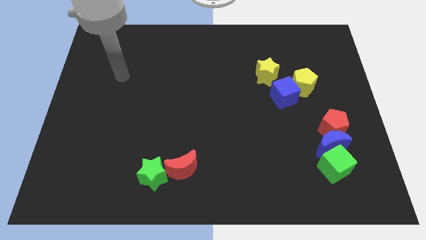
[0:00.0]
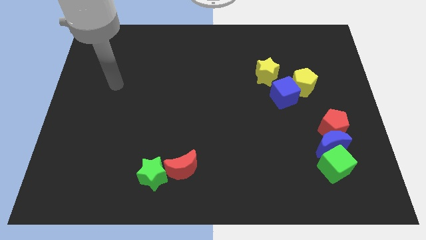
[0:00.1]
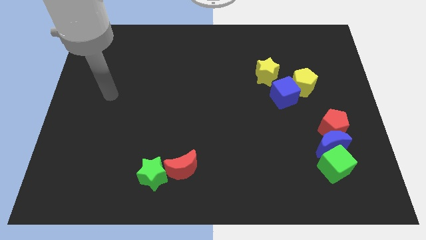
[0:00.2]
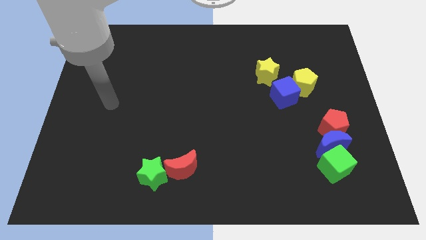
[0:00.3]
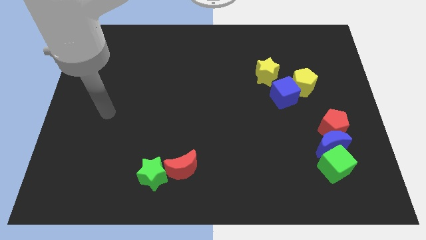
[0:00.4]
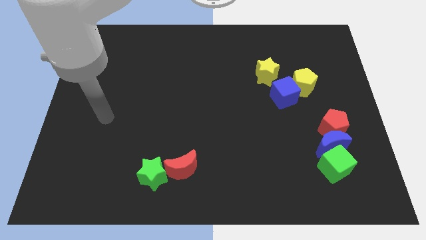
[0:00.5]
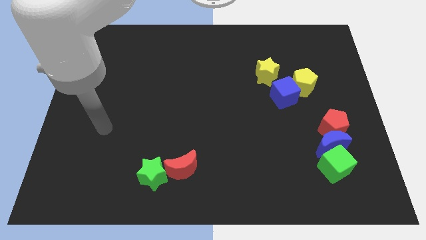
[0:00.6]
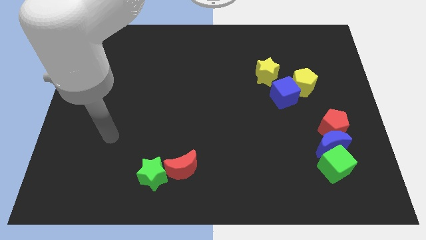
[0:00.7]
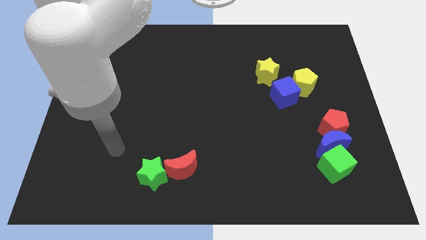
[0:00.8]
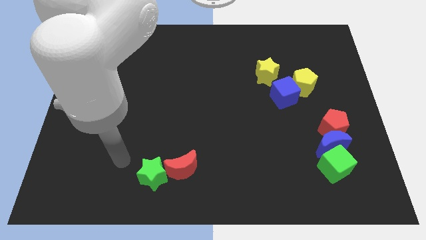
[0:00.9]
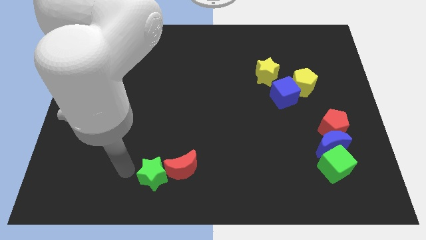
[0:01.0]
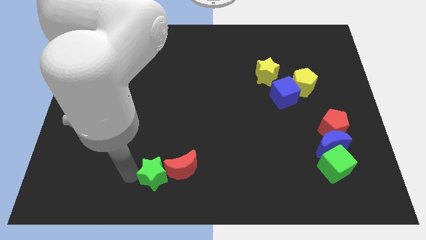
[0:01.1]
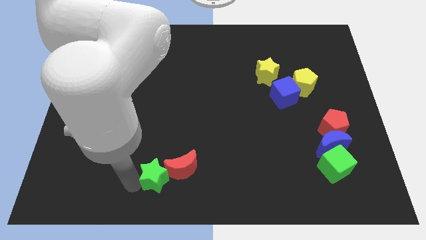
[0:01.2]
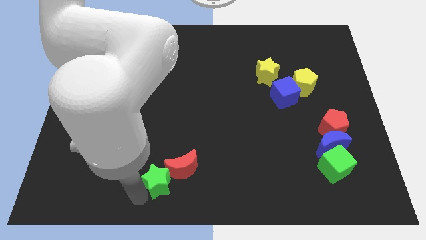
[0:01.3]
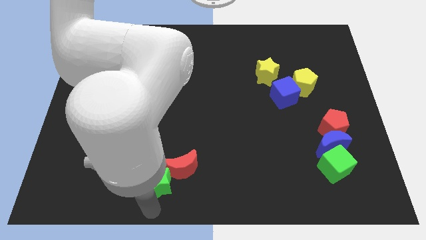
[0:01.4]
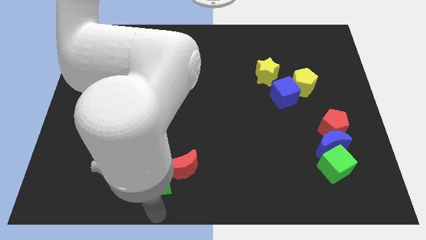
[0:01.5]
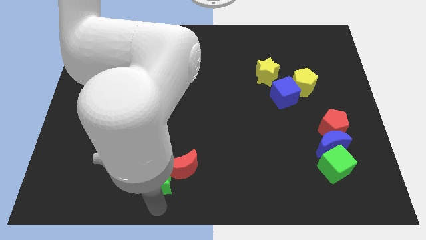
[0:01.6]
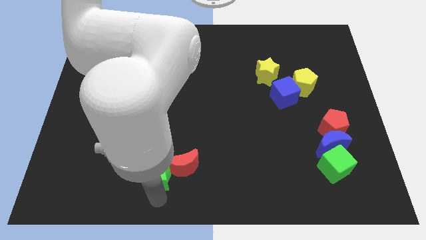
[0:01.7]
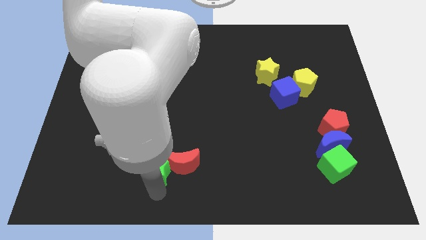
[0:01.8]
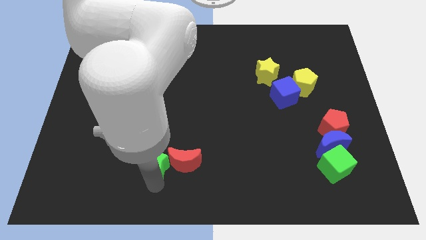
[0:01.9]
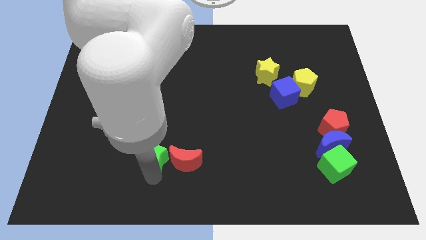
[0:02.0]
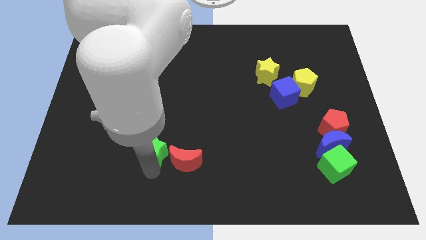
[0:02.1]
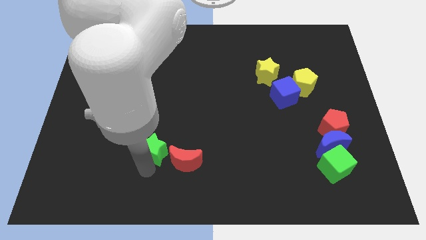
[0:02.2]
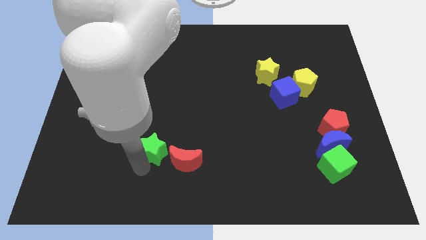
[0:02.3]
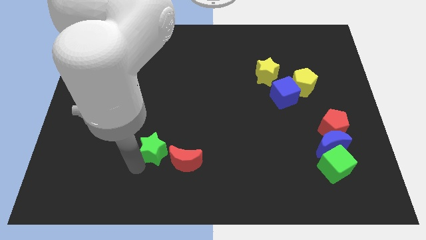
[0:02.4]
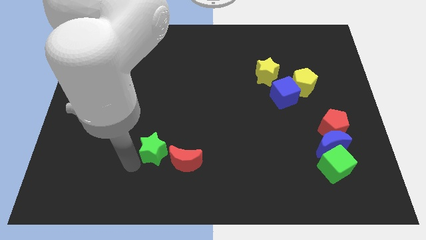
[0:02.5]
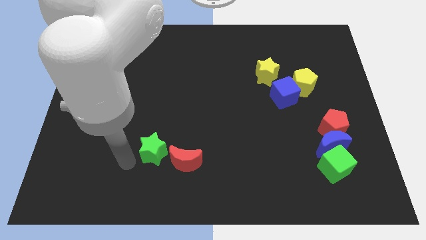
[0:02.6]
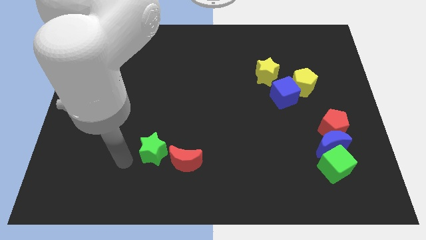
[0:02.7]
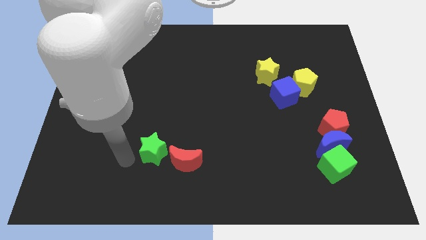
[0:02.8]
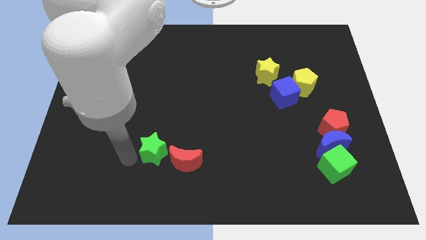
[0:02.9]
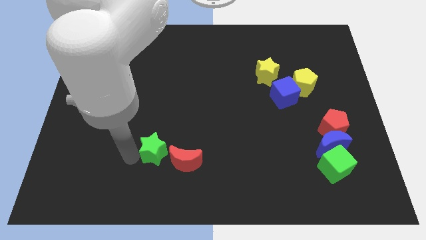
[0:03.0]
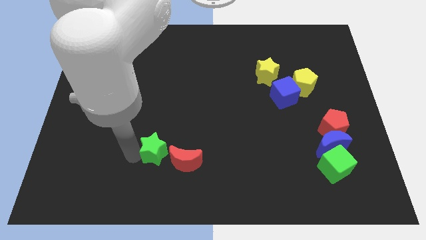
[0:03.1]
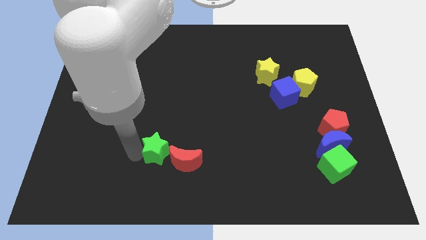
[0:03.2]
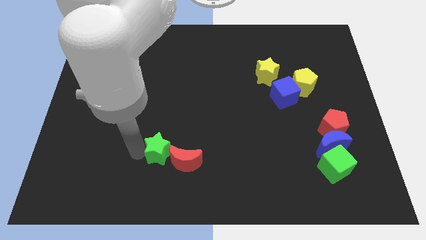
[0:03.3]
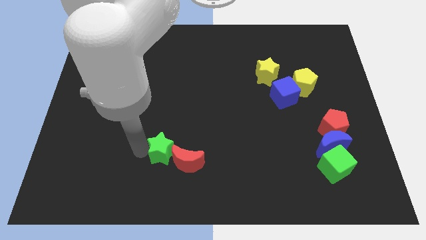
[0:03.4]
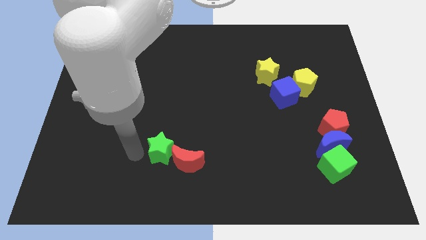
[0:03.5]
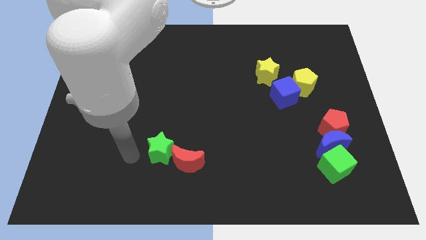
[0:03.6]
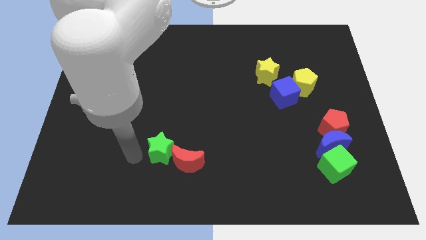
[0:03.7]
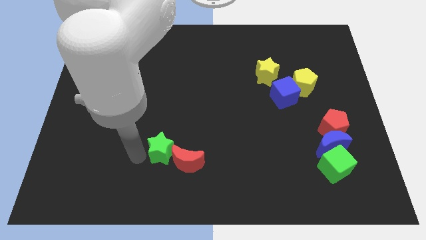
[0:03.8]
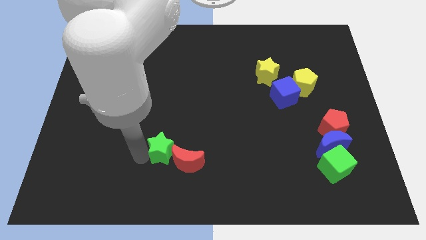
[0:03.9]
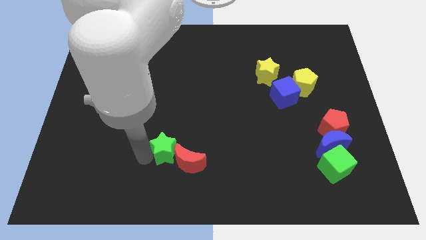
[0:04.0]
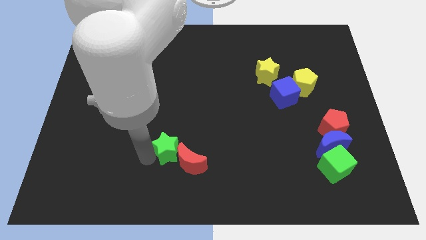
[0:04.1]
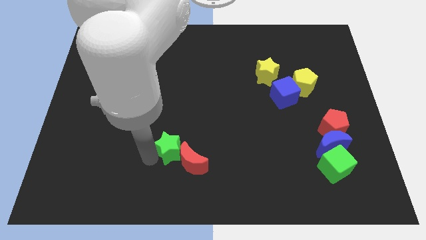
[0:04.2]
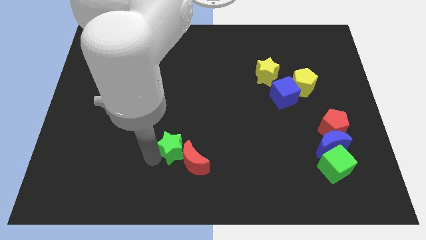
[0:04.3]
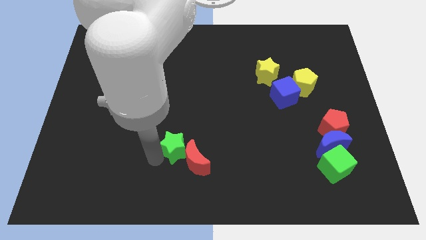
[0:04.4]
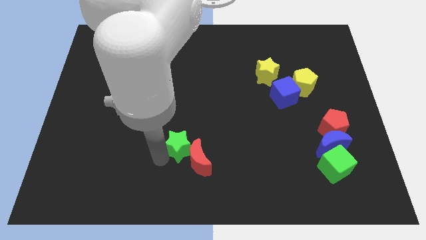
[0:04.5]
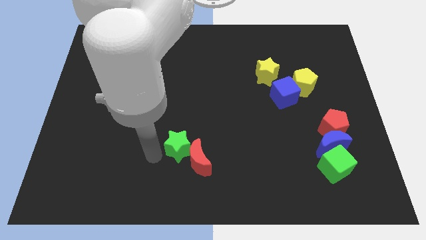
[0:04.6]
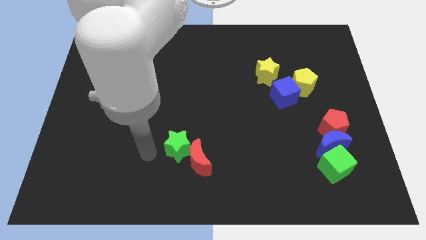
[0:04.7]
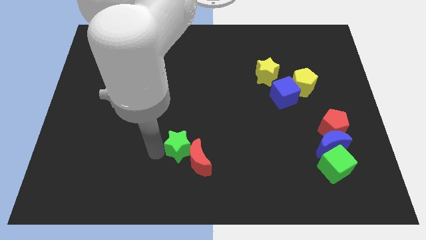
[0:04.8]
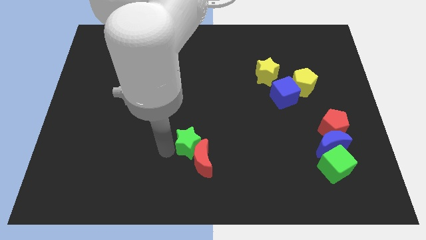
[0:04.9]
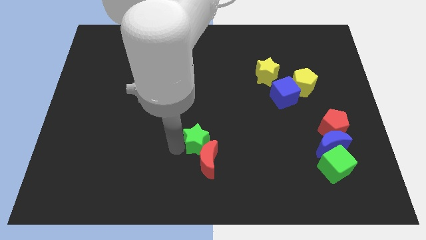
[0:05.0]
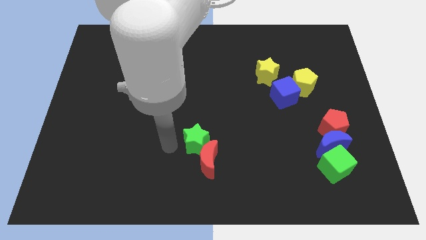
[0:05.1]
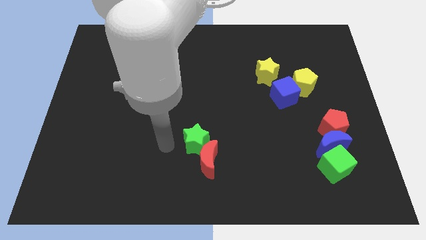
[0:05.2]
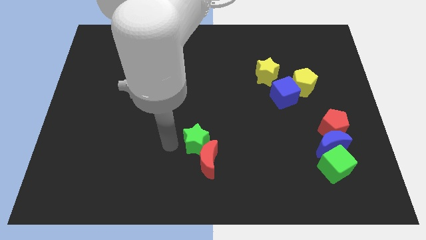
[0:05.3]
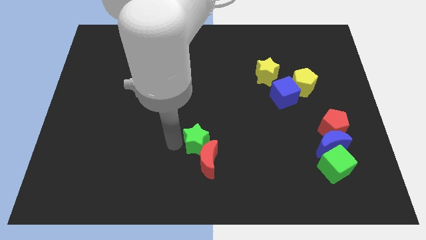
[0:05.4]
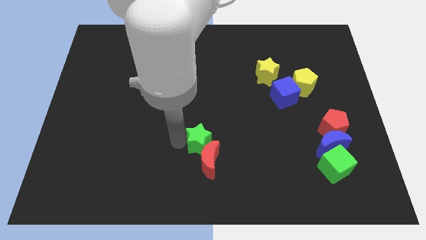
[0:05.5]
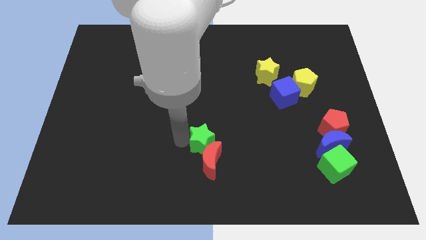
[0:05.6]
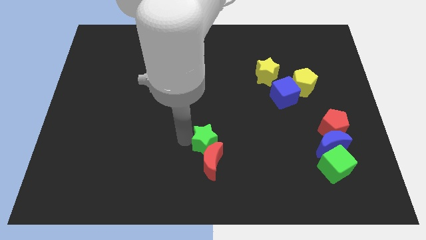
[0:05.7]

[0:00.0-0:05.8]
put the green star to the top right side of the red moon
